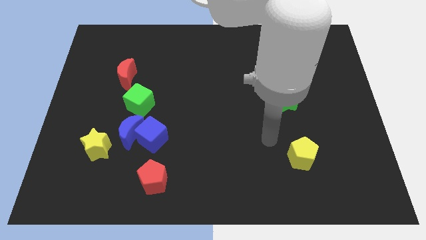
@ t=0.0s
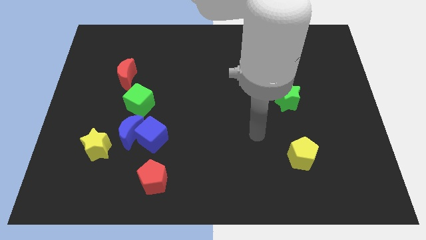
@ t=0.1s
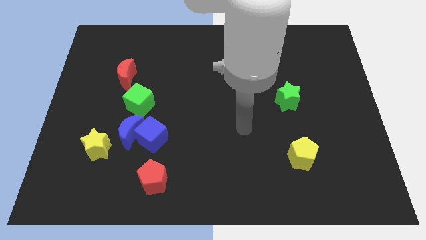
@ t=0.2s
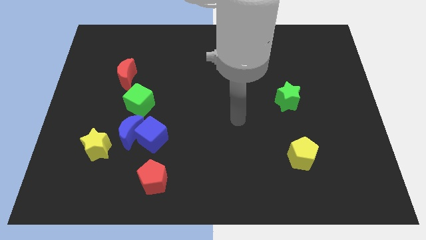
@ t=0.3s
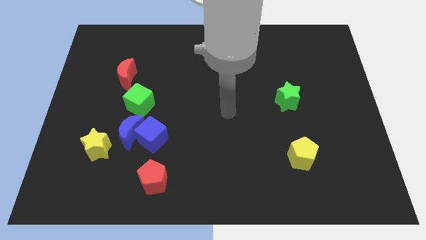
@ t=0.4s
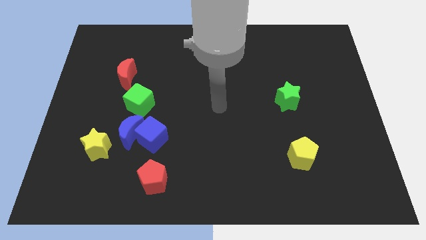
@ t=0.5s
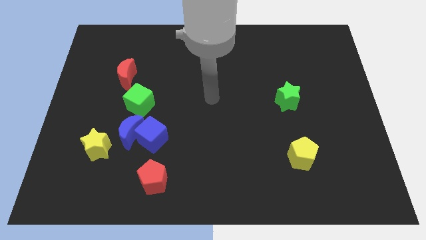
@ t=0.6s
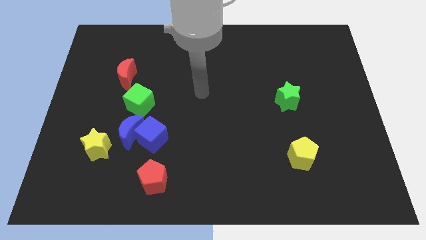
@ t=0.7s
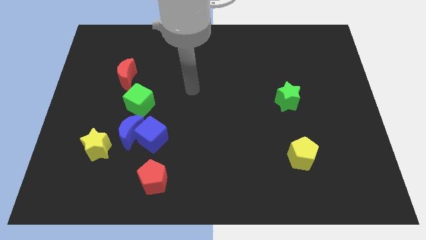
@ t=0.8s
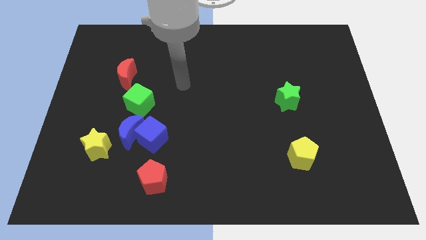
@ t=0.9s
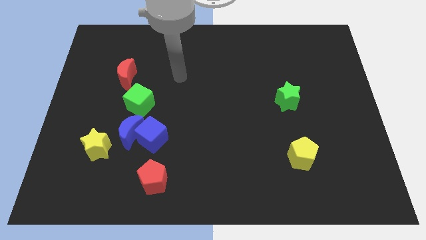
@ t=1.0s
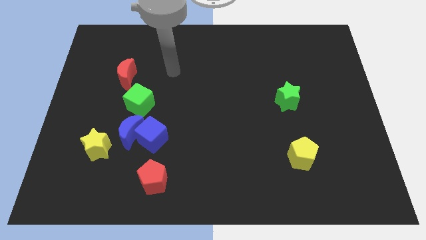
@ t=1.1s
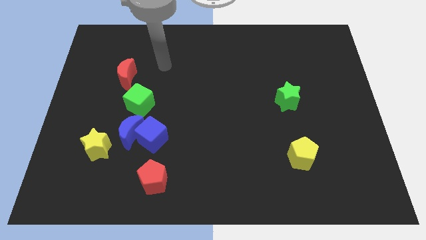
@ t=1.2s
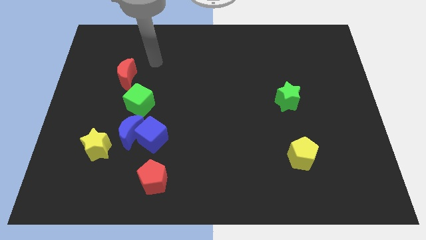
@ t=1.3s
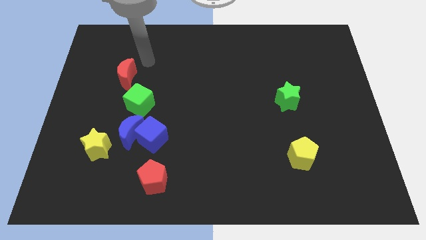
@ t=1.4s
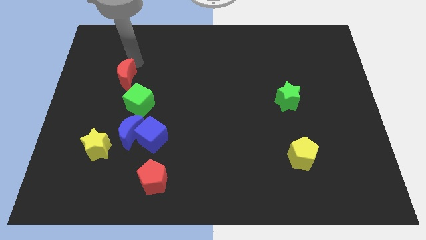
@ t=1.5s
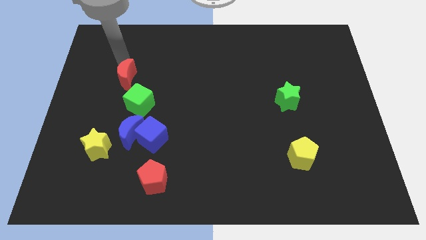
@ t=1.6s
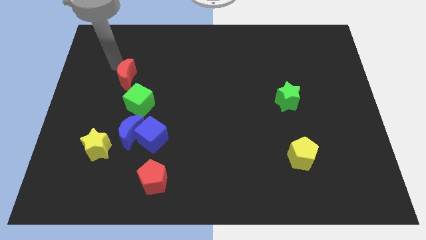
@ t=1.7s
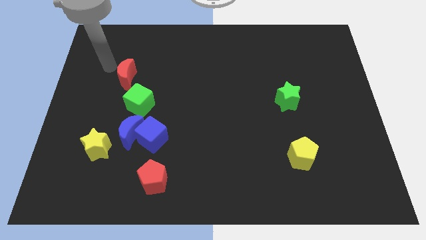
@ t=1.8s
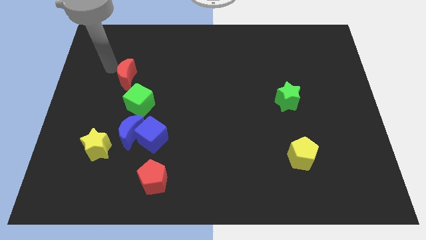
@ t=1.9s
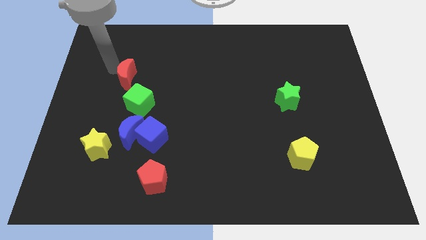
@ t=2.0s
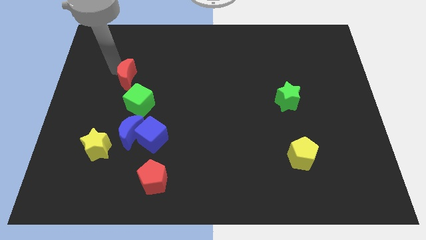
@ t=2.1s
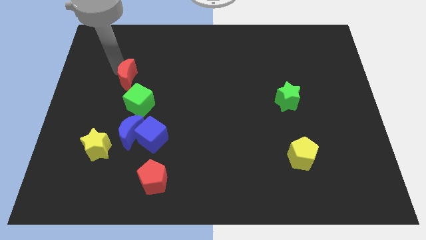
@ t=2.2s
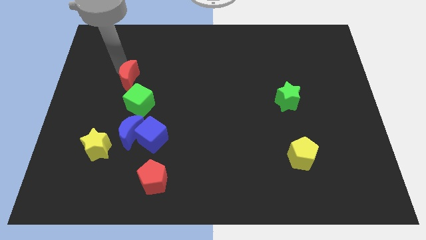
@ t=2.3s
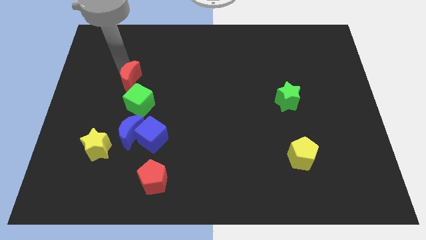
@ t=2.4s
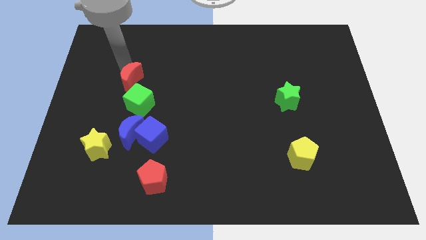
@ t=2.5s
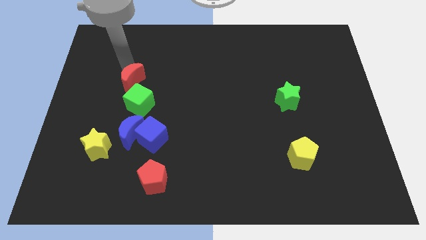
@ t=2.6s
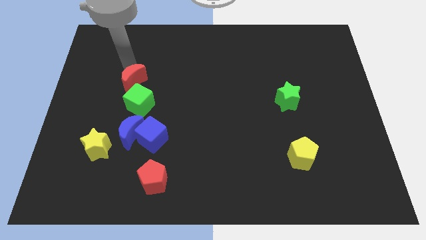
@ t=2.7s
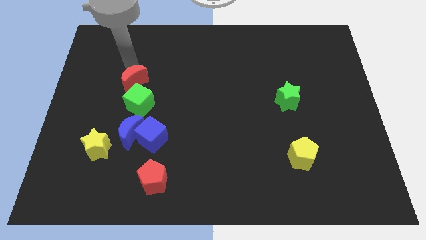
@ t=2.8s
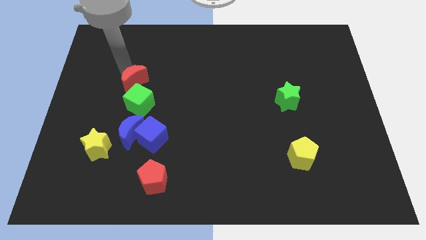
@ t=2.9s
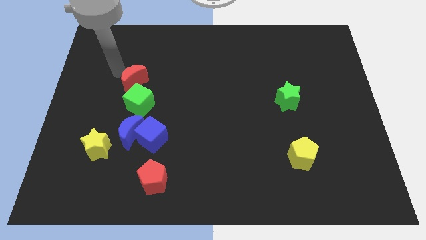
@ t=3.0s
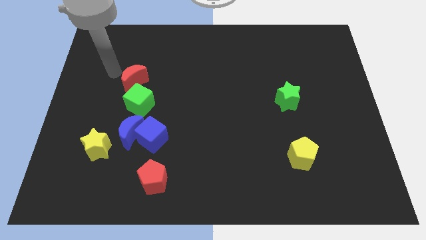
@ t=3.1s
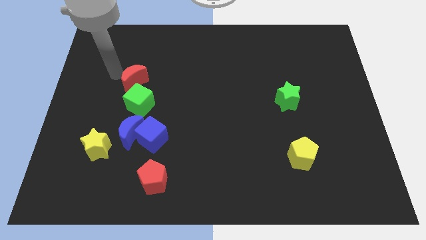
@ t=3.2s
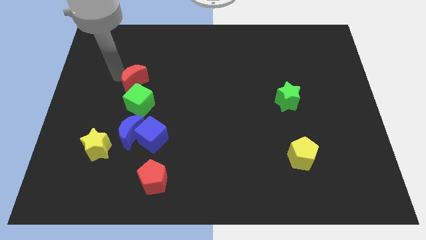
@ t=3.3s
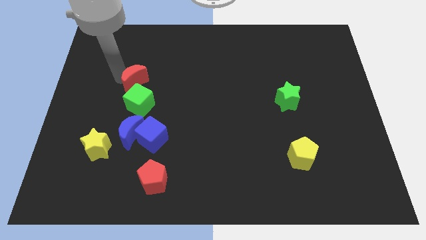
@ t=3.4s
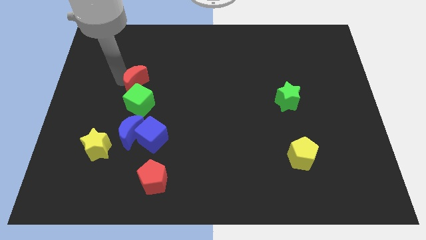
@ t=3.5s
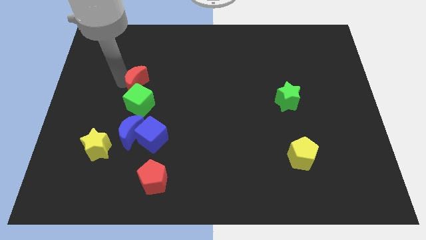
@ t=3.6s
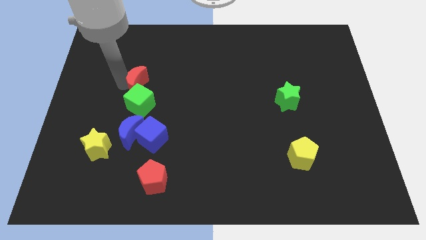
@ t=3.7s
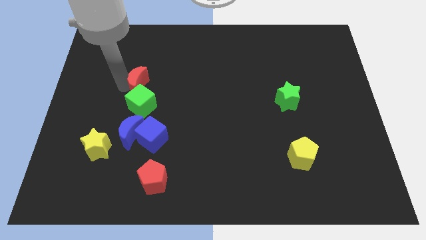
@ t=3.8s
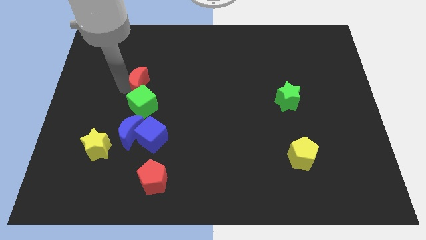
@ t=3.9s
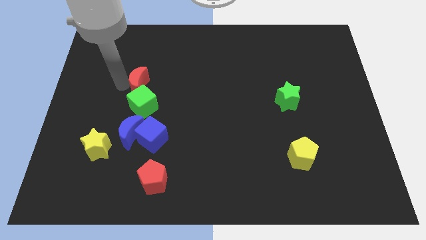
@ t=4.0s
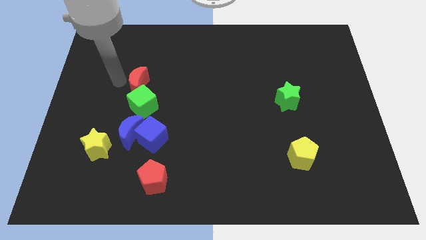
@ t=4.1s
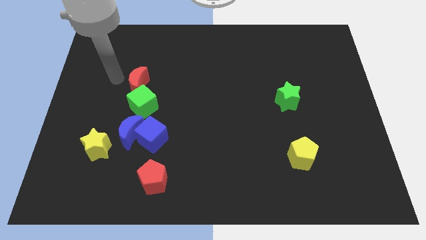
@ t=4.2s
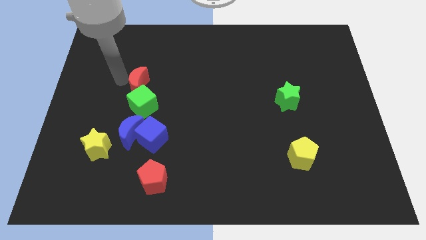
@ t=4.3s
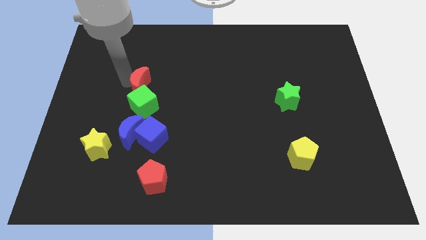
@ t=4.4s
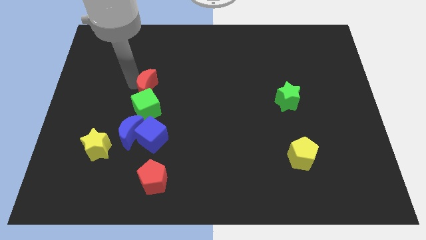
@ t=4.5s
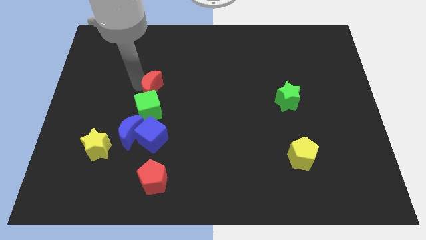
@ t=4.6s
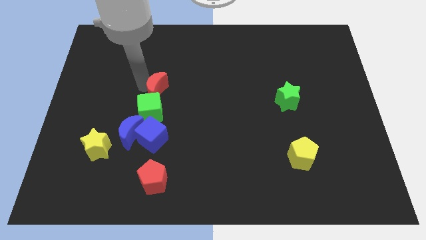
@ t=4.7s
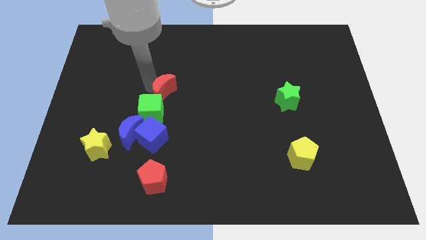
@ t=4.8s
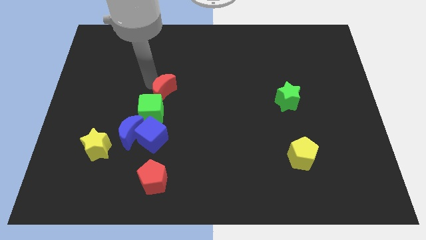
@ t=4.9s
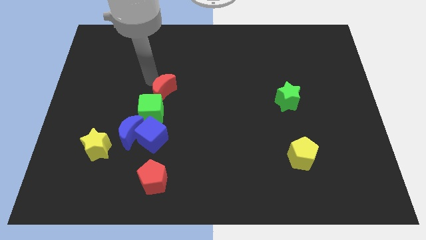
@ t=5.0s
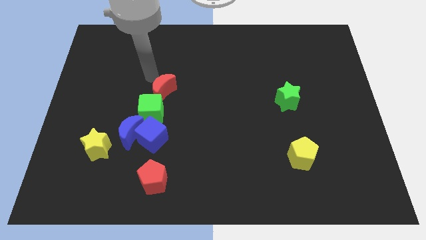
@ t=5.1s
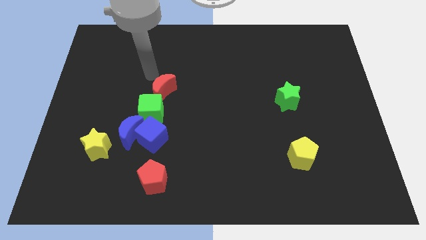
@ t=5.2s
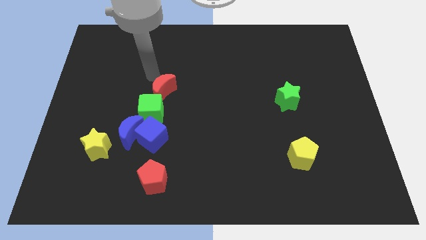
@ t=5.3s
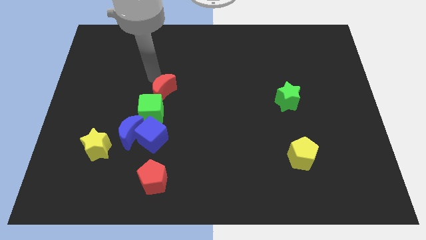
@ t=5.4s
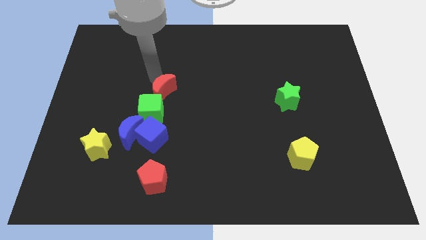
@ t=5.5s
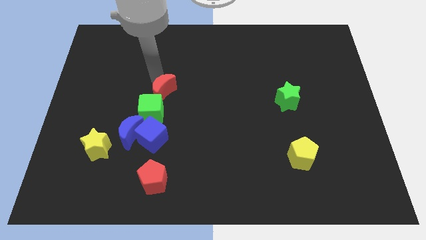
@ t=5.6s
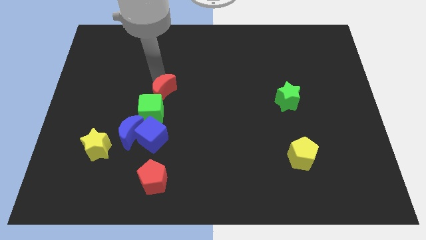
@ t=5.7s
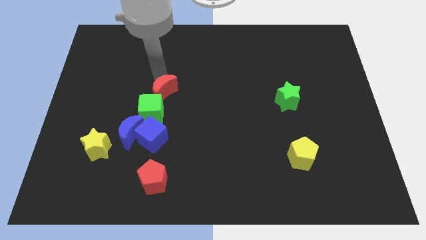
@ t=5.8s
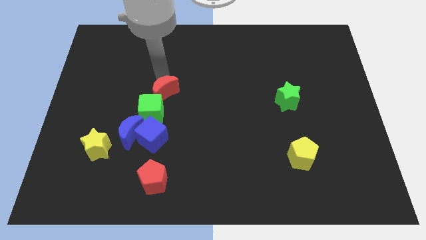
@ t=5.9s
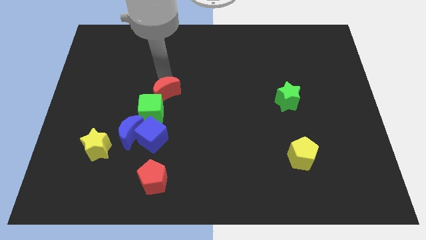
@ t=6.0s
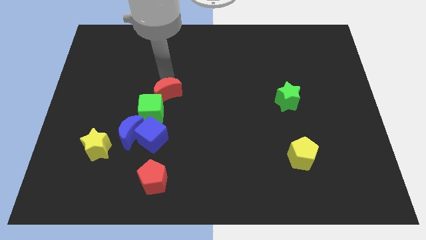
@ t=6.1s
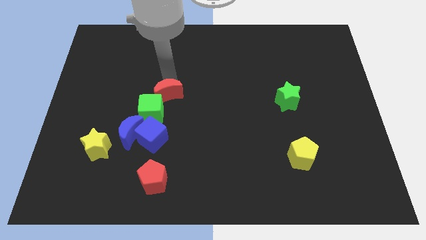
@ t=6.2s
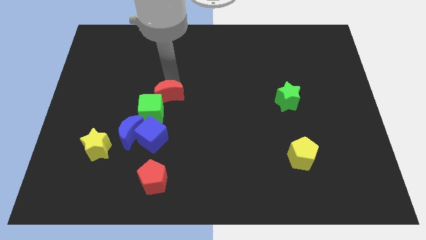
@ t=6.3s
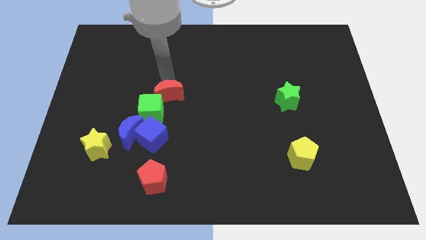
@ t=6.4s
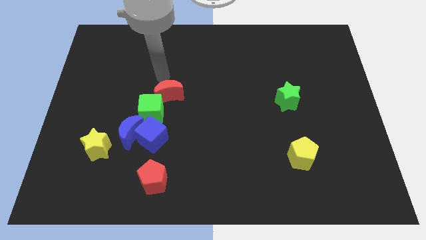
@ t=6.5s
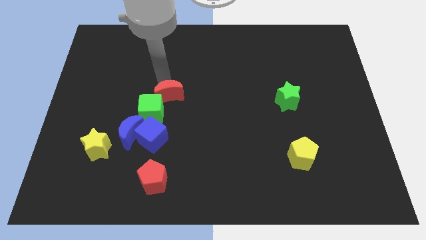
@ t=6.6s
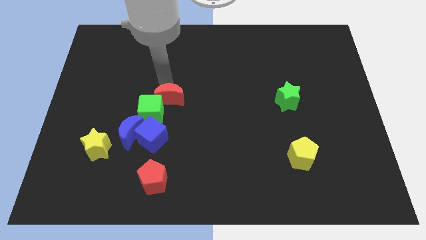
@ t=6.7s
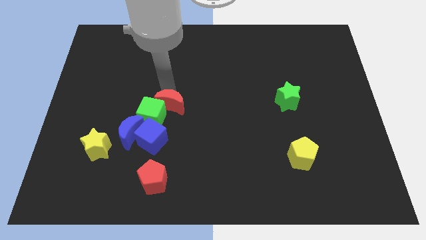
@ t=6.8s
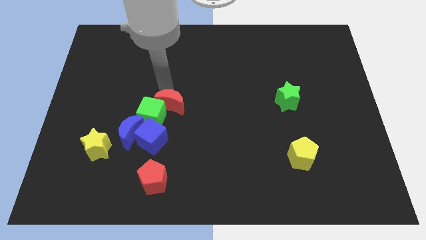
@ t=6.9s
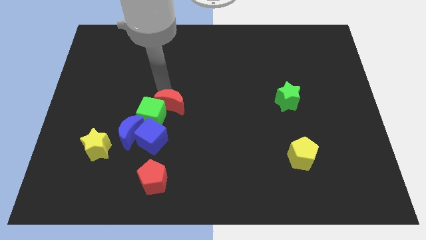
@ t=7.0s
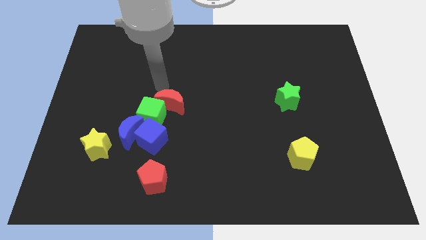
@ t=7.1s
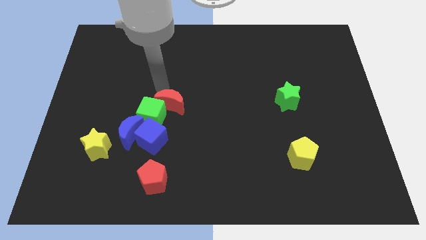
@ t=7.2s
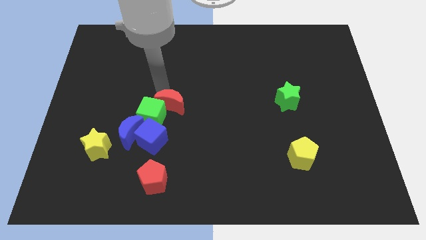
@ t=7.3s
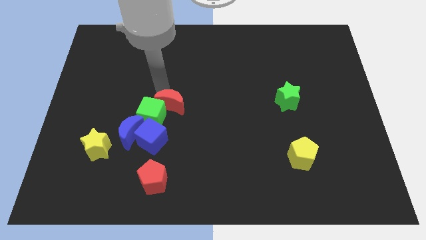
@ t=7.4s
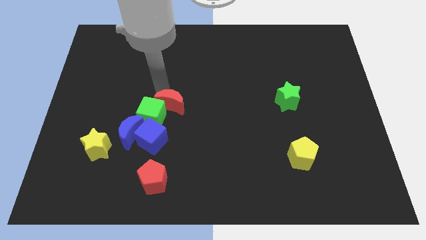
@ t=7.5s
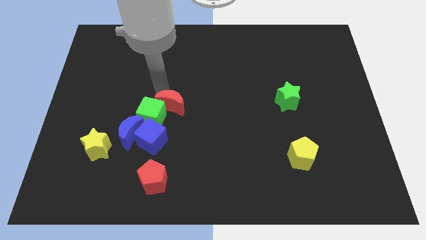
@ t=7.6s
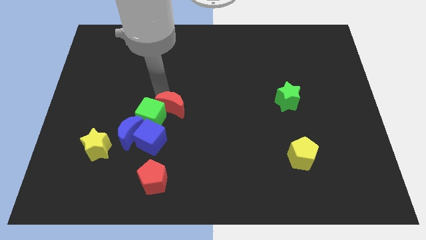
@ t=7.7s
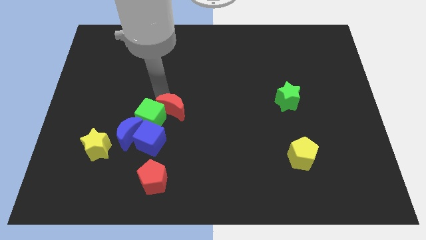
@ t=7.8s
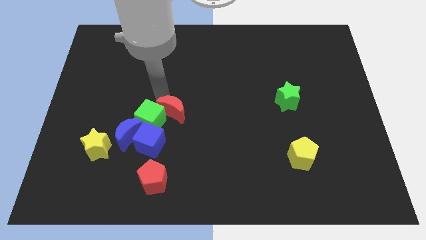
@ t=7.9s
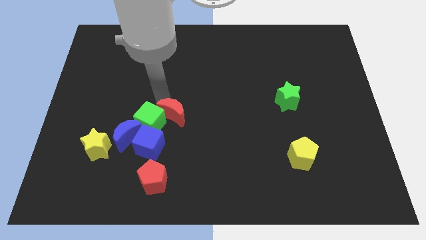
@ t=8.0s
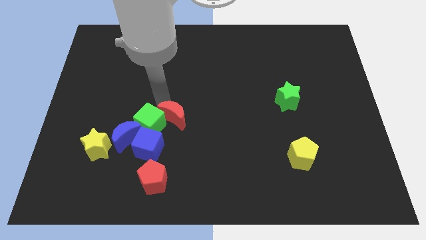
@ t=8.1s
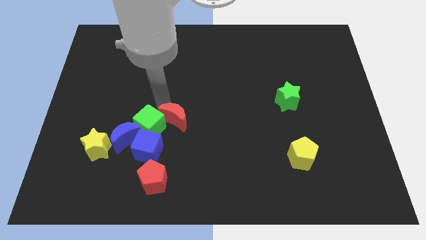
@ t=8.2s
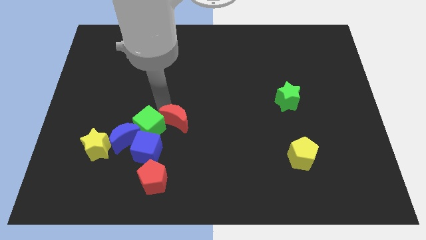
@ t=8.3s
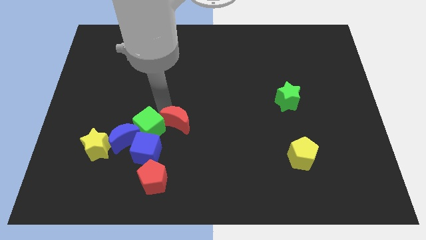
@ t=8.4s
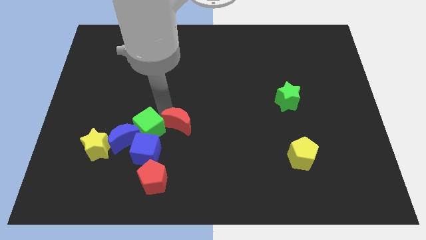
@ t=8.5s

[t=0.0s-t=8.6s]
slide the red moon downwards and then to the right

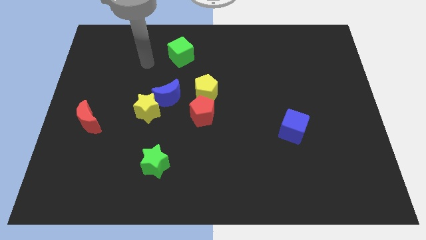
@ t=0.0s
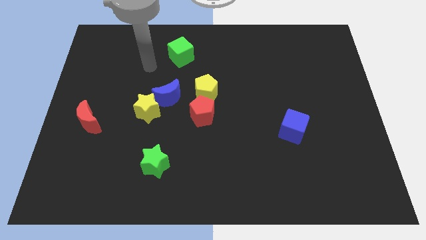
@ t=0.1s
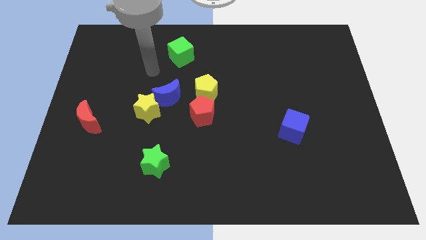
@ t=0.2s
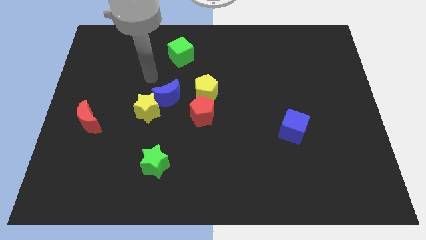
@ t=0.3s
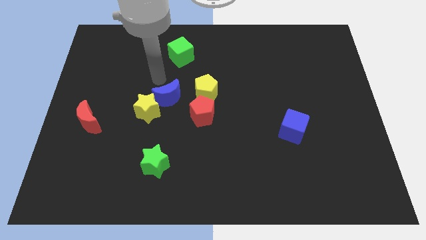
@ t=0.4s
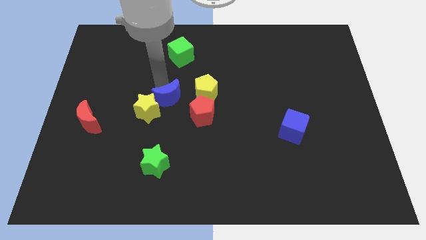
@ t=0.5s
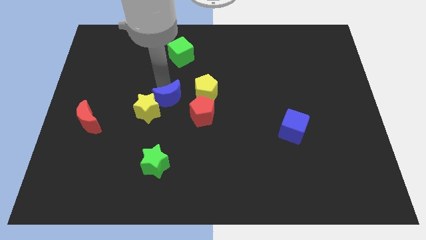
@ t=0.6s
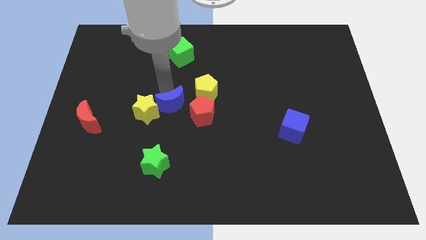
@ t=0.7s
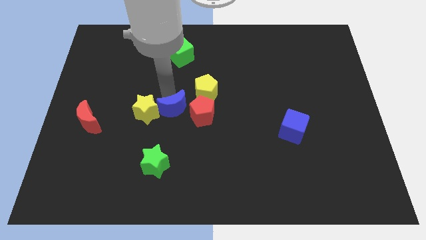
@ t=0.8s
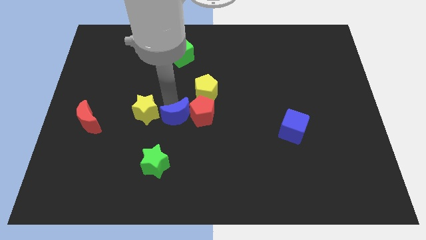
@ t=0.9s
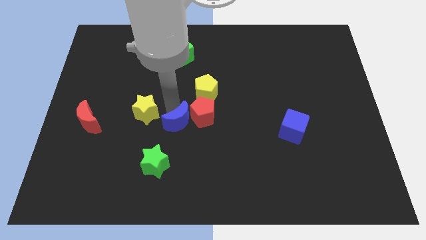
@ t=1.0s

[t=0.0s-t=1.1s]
push the blue moon a little down and to the right diagonally
